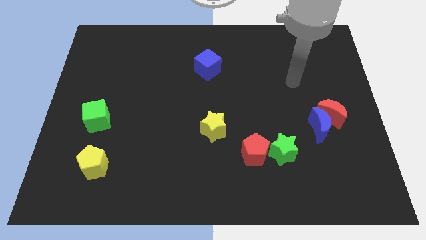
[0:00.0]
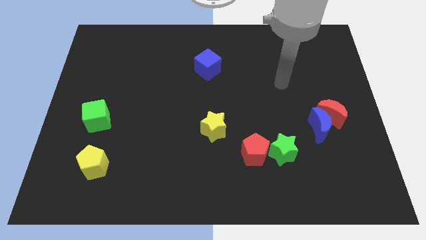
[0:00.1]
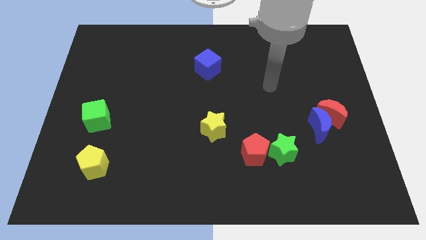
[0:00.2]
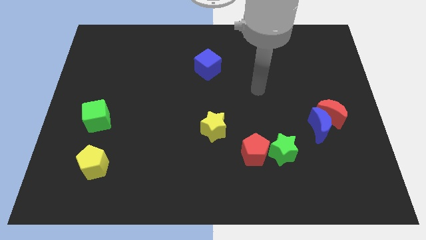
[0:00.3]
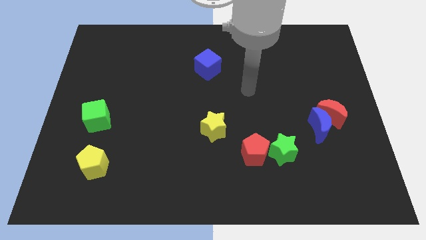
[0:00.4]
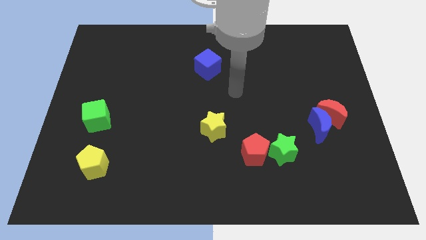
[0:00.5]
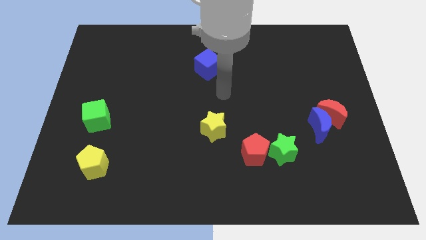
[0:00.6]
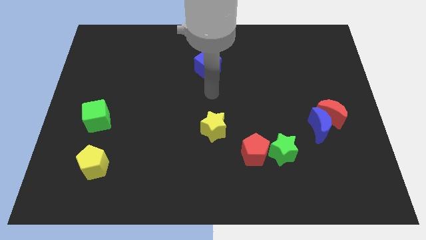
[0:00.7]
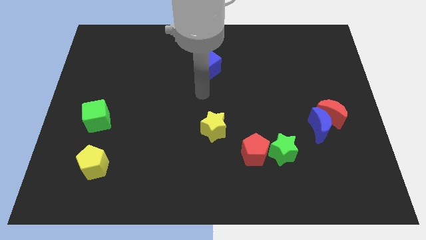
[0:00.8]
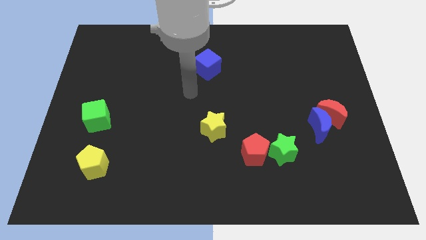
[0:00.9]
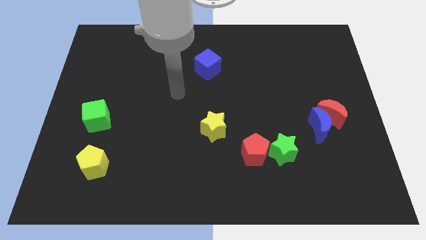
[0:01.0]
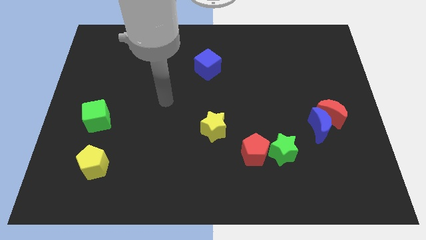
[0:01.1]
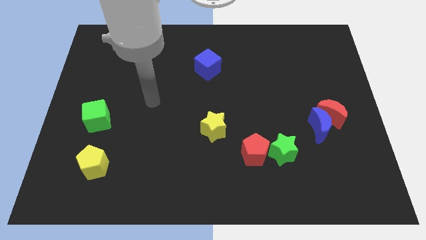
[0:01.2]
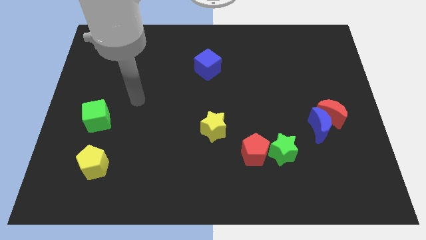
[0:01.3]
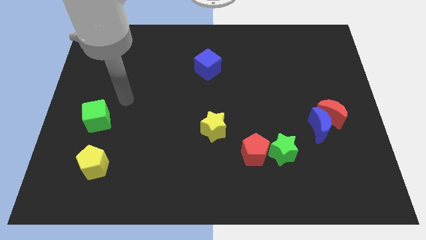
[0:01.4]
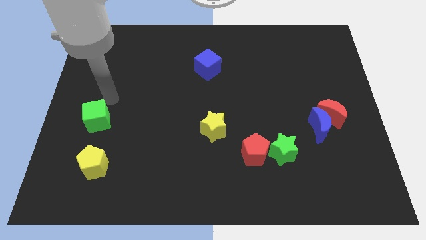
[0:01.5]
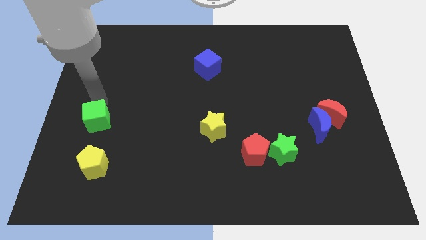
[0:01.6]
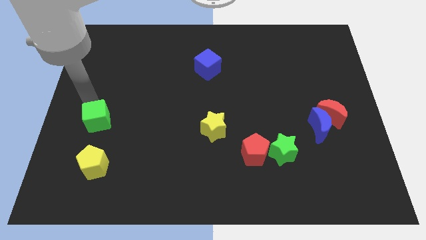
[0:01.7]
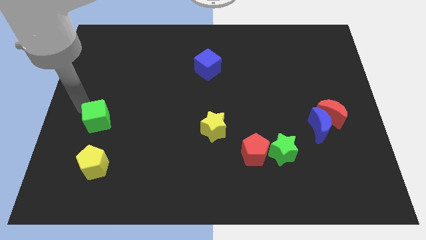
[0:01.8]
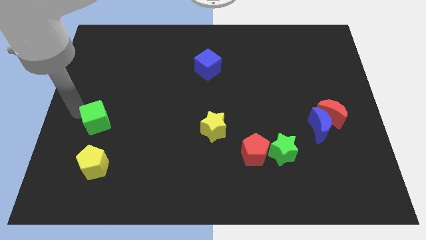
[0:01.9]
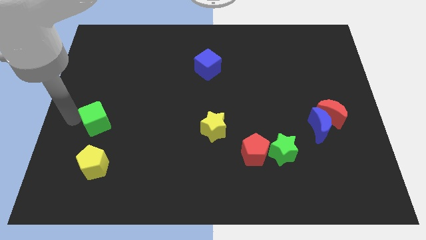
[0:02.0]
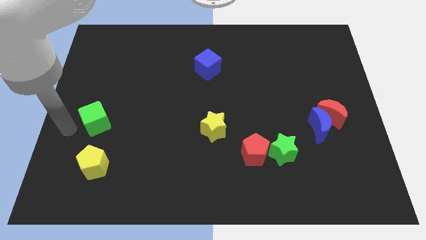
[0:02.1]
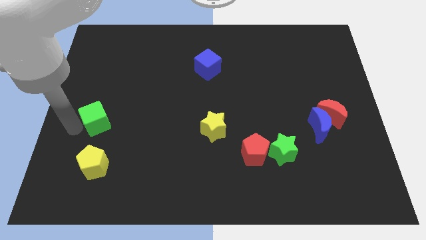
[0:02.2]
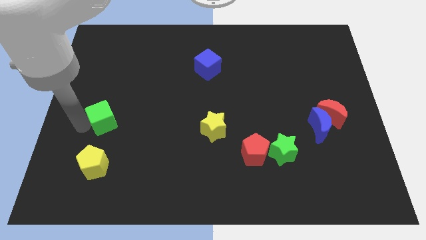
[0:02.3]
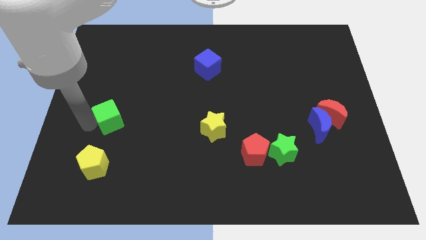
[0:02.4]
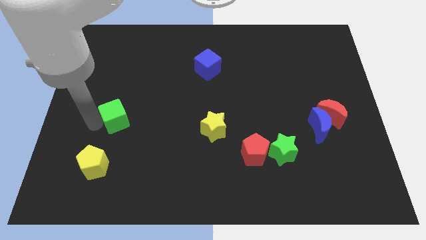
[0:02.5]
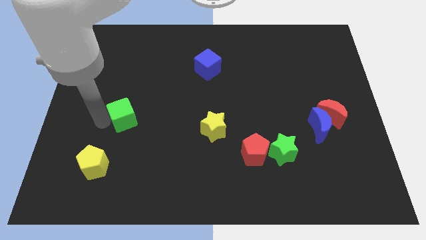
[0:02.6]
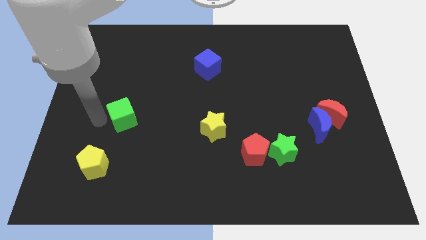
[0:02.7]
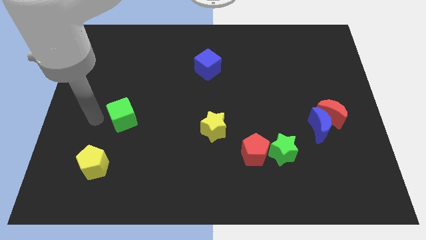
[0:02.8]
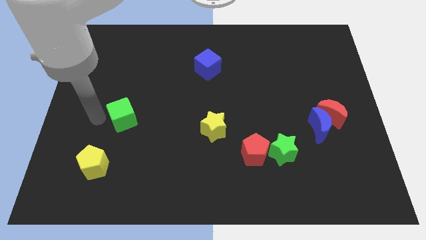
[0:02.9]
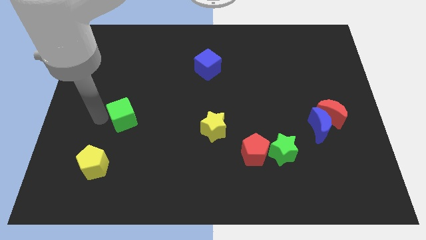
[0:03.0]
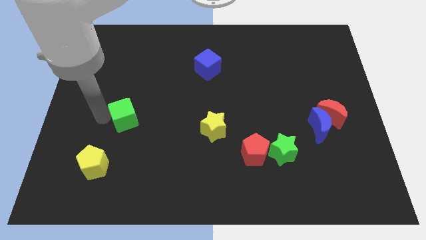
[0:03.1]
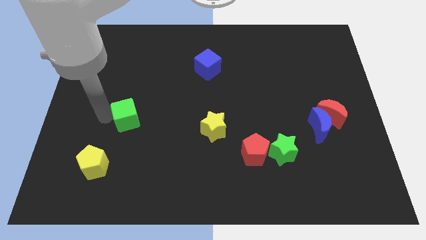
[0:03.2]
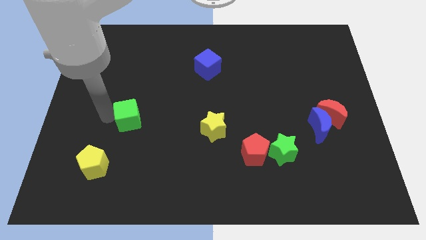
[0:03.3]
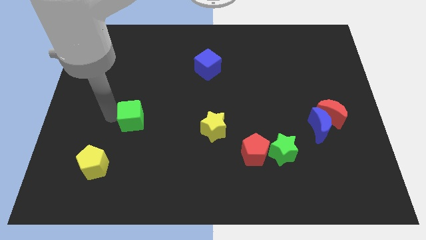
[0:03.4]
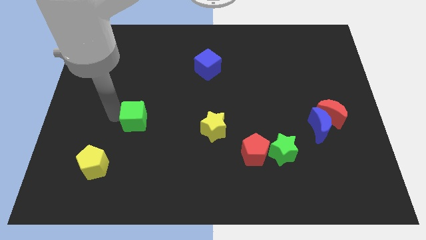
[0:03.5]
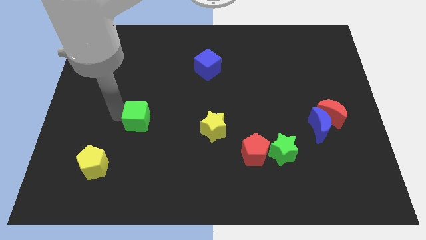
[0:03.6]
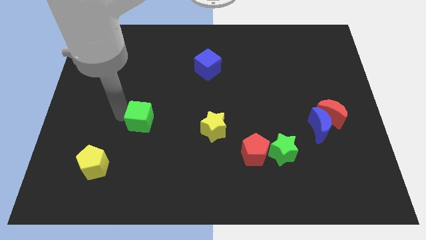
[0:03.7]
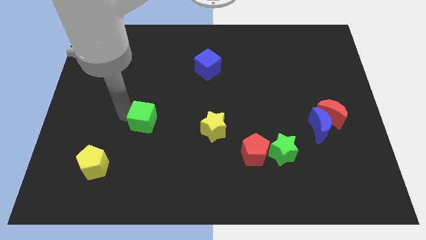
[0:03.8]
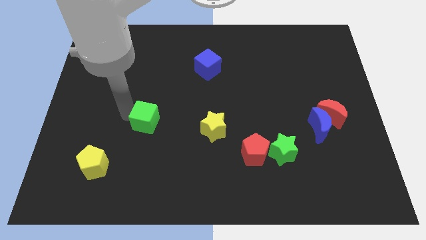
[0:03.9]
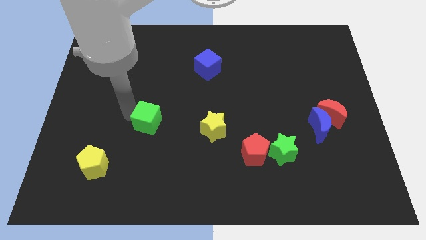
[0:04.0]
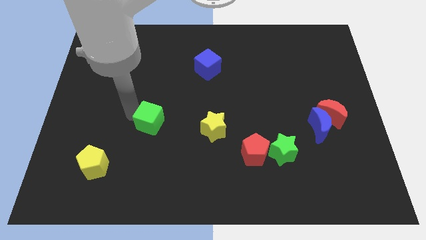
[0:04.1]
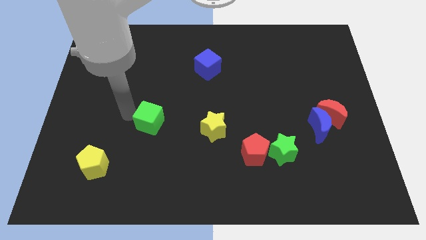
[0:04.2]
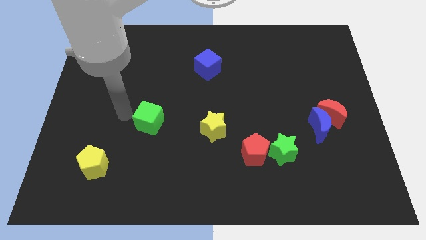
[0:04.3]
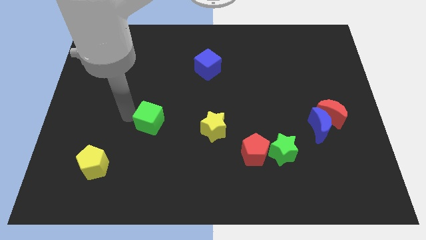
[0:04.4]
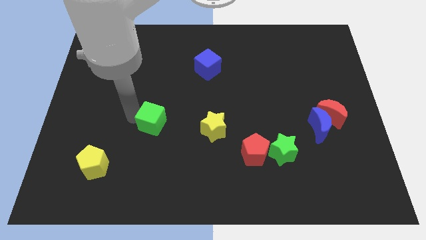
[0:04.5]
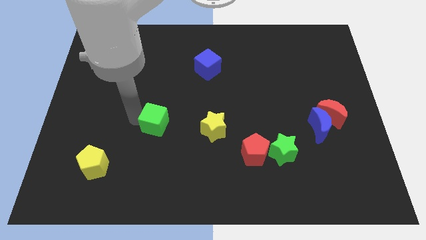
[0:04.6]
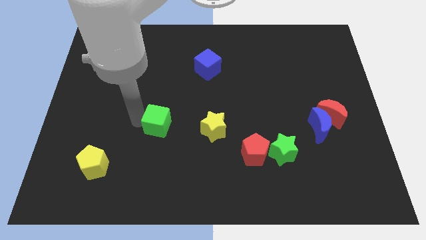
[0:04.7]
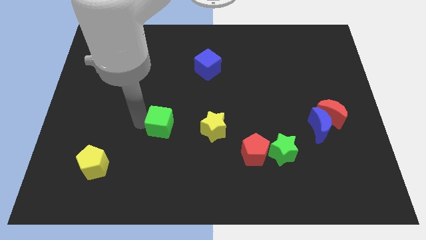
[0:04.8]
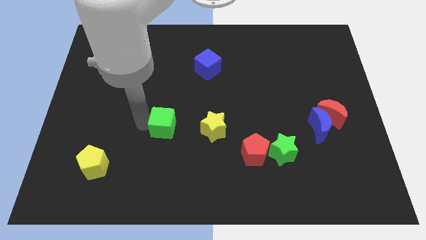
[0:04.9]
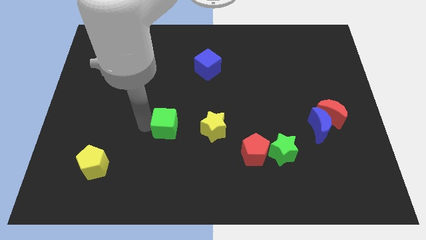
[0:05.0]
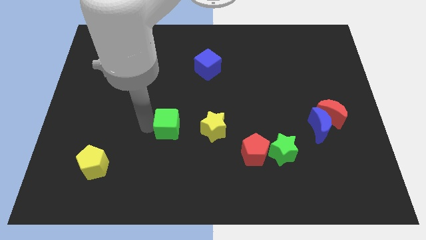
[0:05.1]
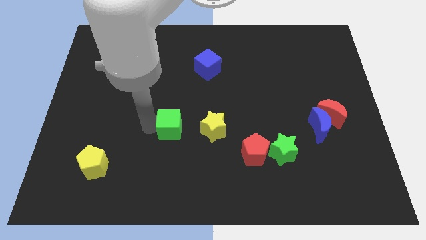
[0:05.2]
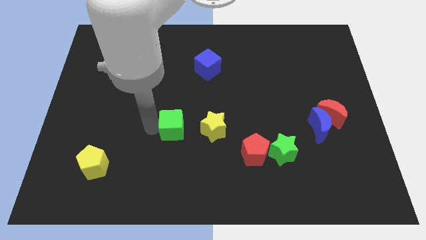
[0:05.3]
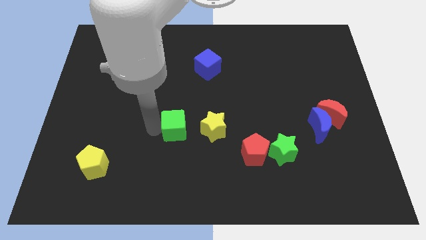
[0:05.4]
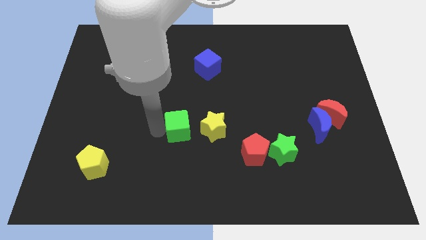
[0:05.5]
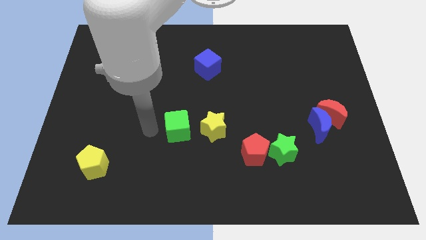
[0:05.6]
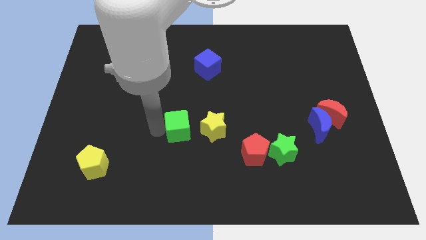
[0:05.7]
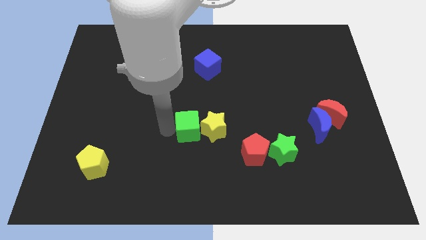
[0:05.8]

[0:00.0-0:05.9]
slide the green cube close to the yellow star

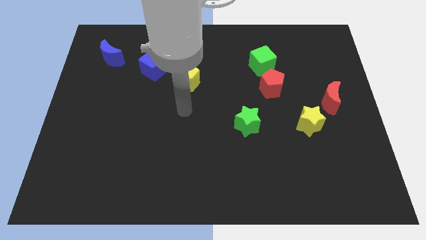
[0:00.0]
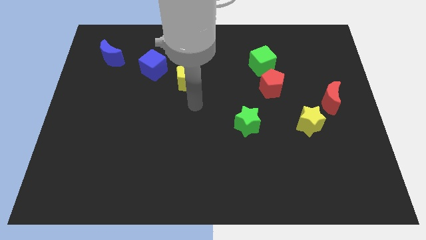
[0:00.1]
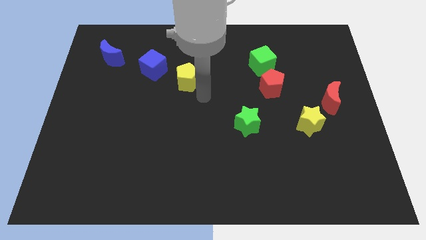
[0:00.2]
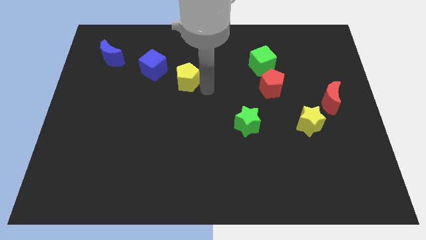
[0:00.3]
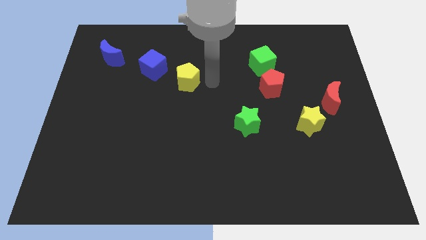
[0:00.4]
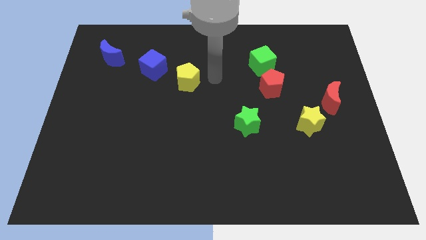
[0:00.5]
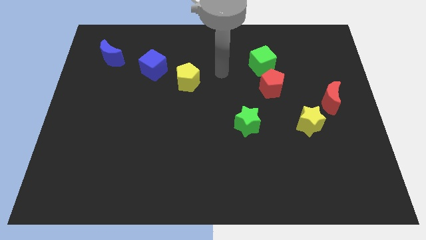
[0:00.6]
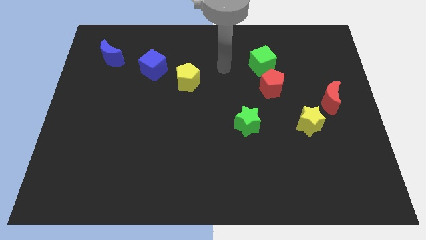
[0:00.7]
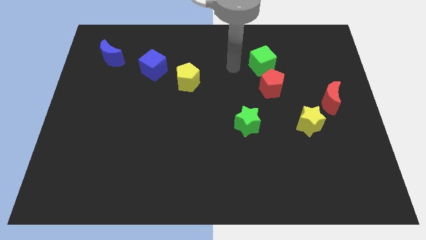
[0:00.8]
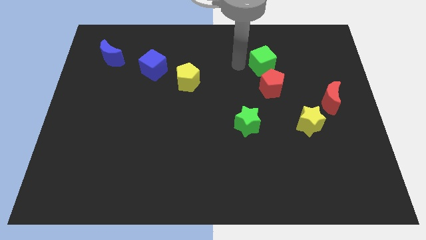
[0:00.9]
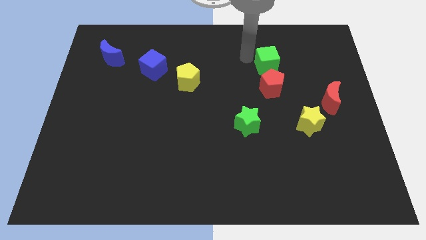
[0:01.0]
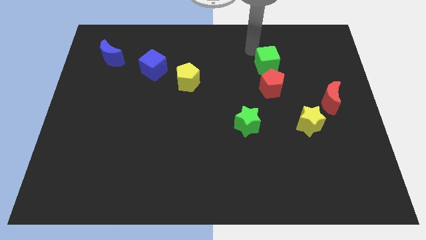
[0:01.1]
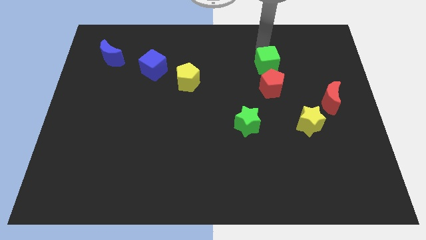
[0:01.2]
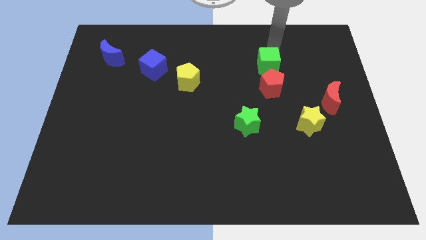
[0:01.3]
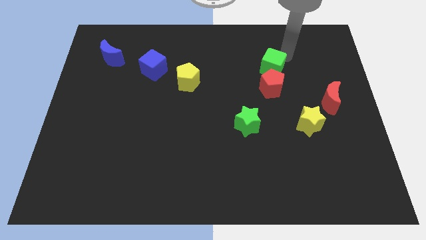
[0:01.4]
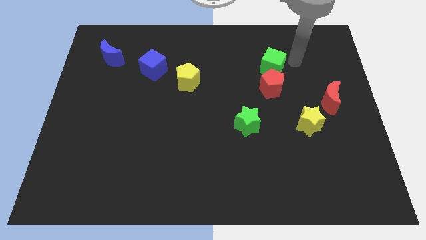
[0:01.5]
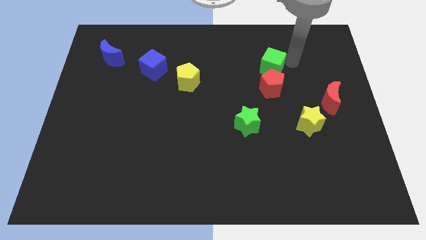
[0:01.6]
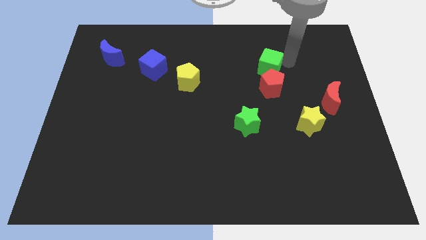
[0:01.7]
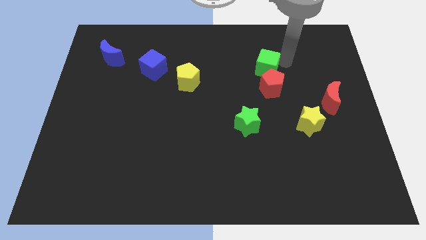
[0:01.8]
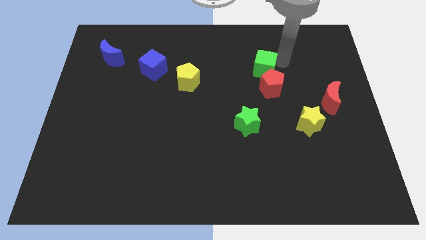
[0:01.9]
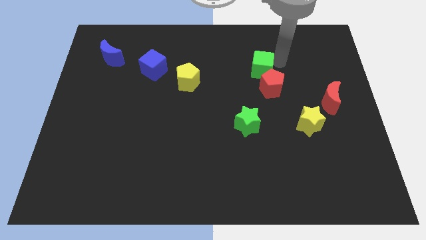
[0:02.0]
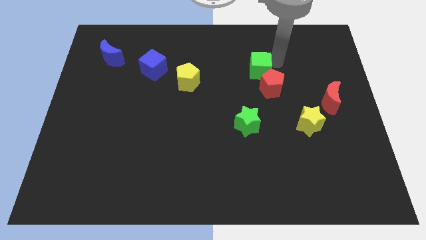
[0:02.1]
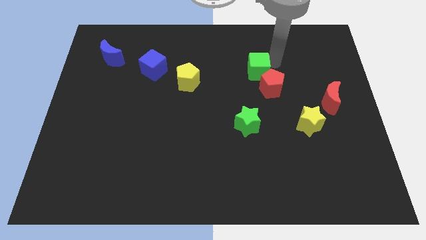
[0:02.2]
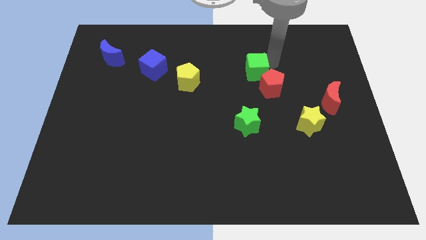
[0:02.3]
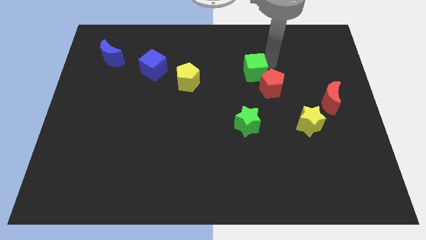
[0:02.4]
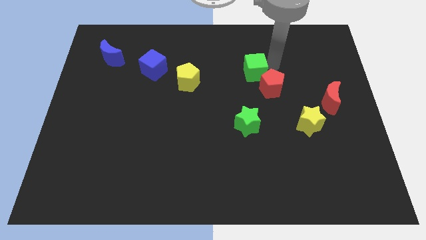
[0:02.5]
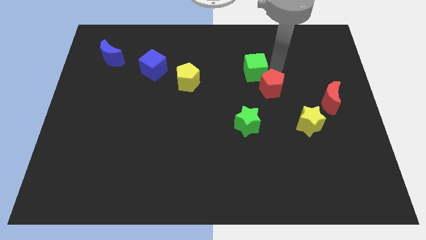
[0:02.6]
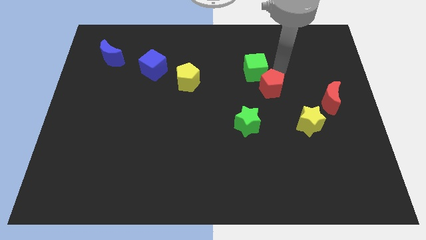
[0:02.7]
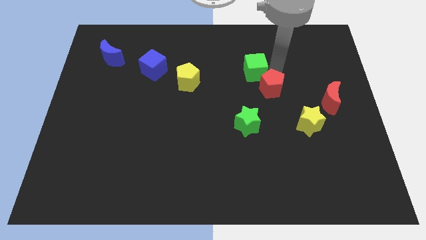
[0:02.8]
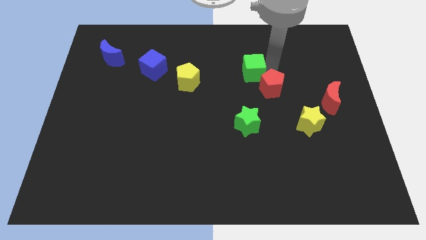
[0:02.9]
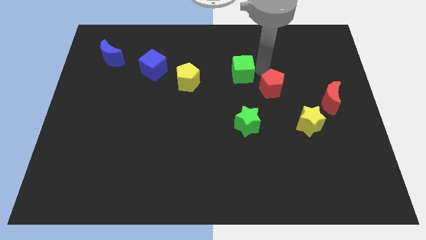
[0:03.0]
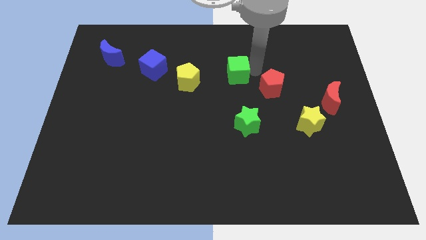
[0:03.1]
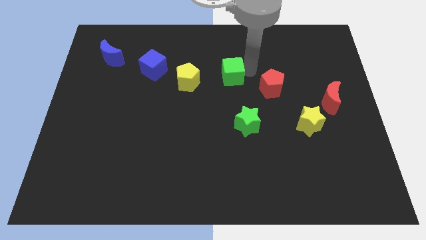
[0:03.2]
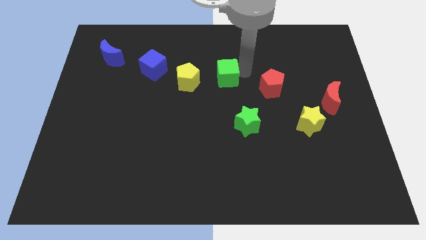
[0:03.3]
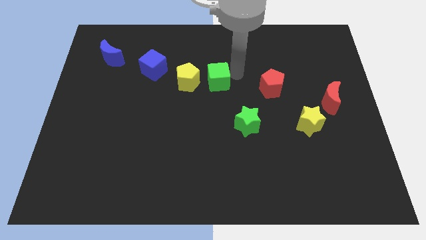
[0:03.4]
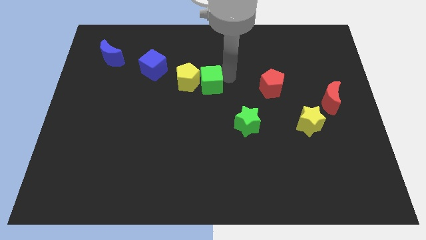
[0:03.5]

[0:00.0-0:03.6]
move the green cube close to the yellow pentagon
